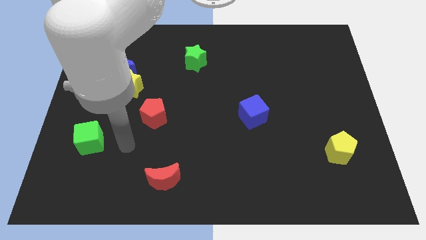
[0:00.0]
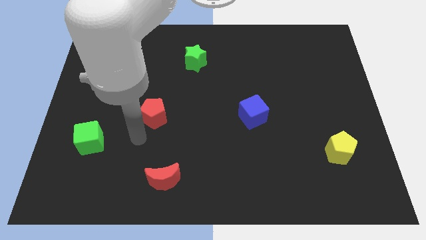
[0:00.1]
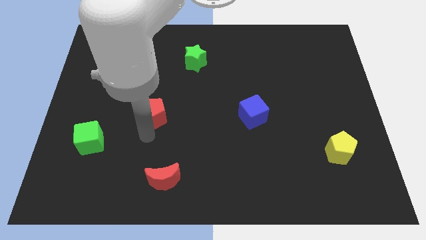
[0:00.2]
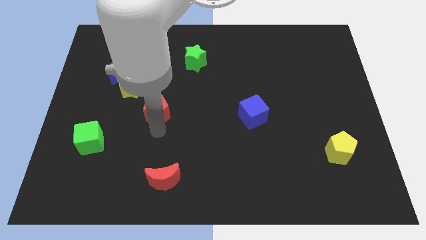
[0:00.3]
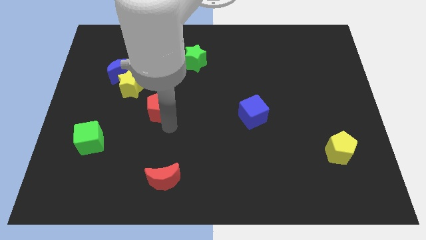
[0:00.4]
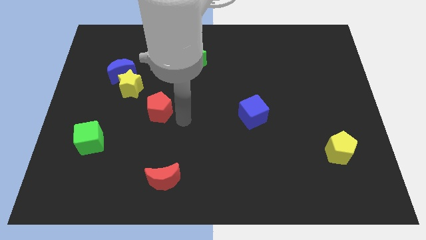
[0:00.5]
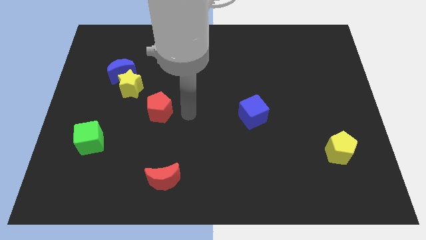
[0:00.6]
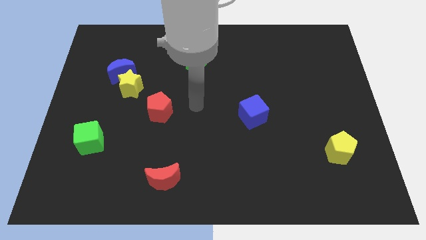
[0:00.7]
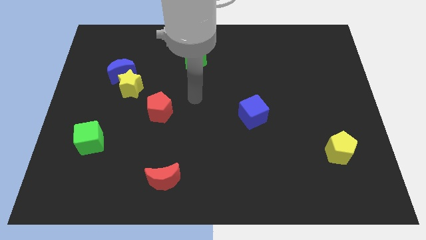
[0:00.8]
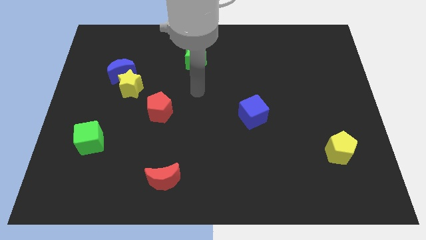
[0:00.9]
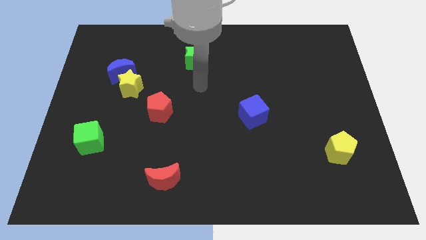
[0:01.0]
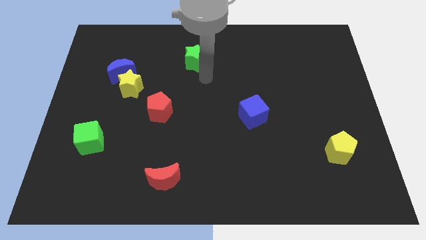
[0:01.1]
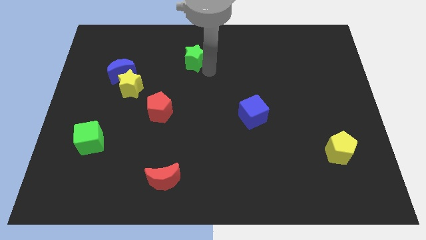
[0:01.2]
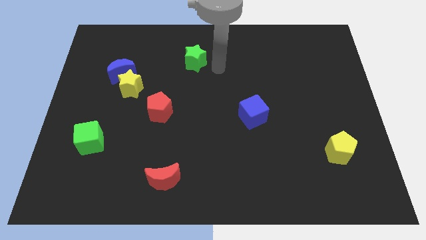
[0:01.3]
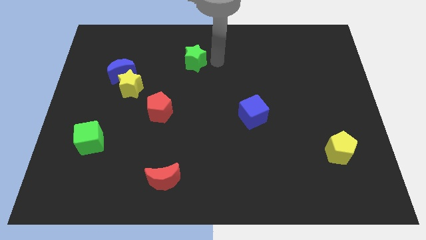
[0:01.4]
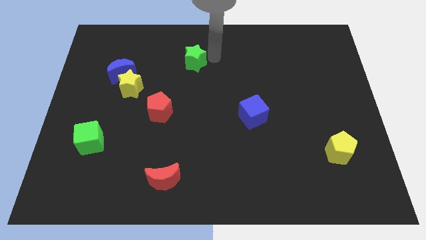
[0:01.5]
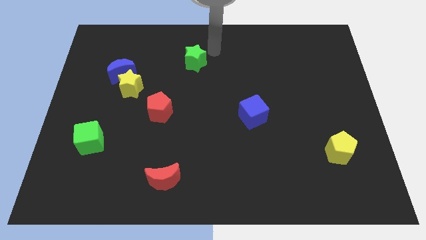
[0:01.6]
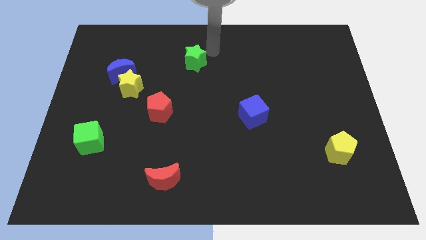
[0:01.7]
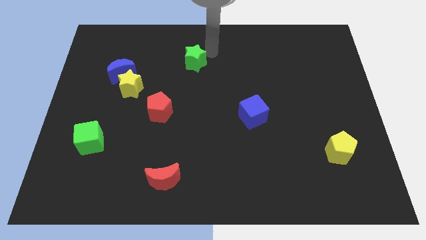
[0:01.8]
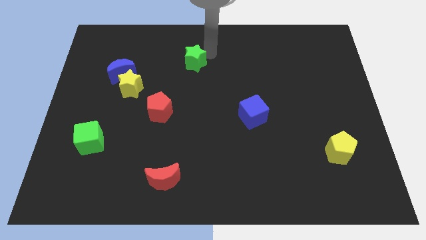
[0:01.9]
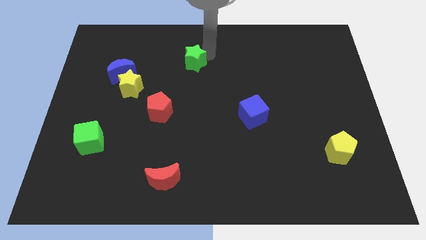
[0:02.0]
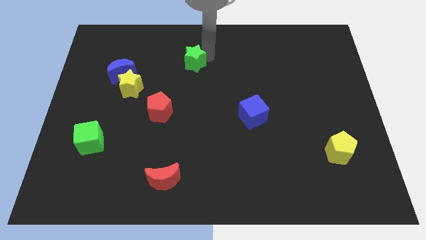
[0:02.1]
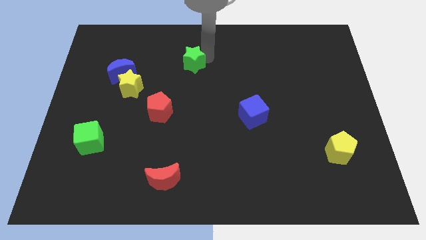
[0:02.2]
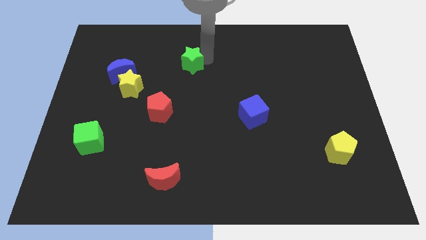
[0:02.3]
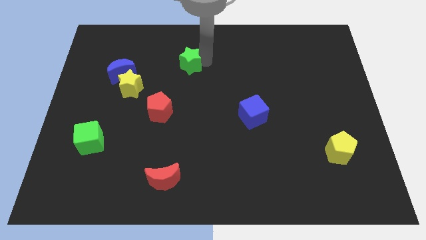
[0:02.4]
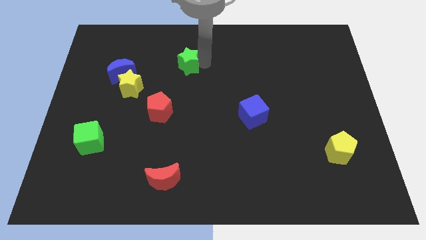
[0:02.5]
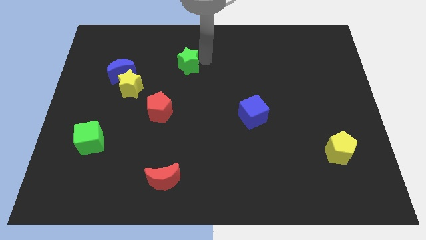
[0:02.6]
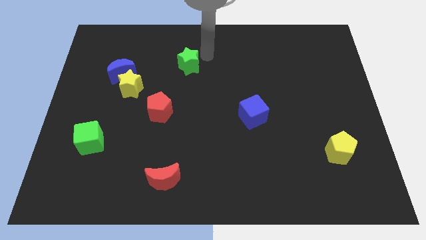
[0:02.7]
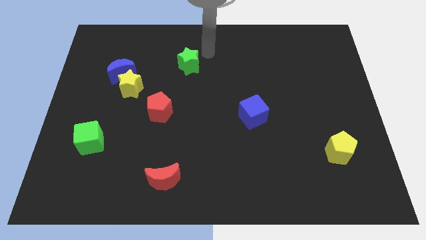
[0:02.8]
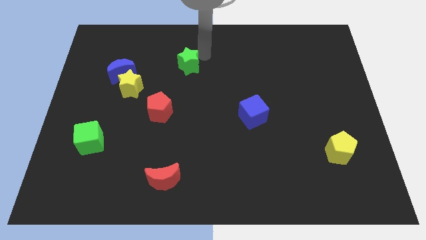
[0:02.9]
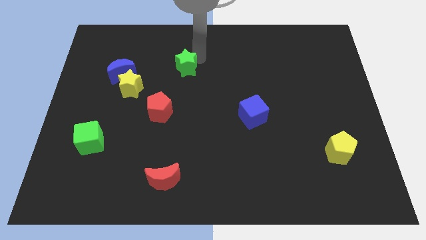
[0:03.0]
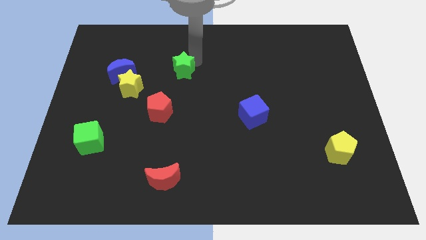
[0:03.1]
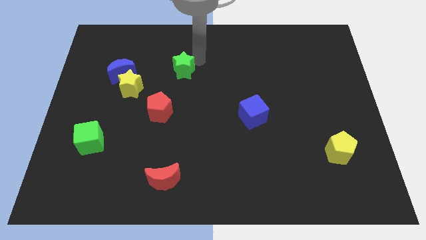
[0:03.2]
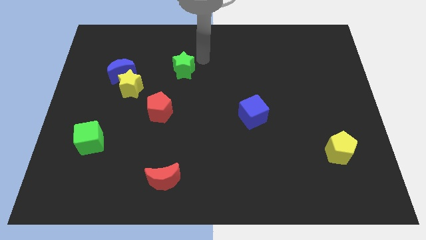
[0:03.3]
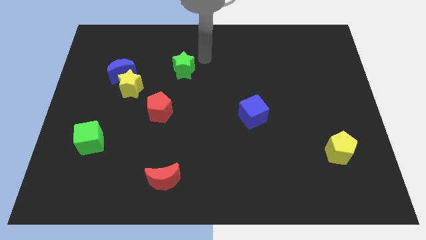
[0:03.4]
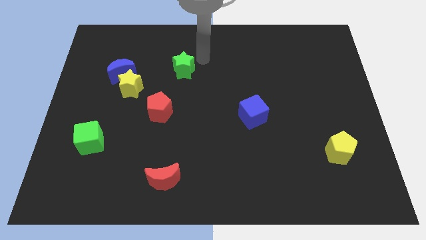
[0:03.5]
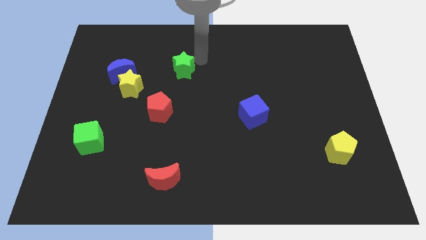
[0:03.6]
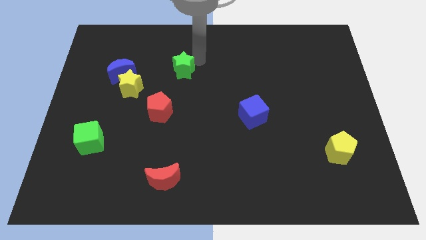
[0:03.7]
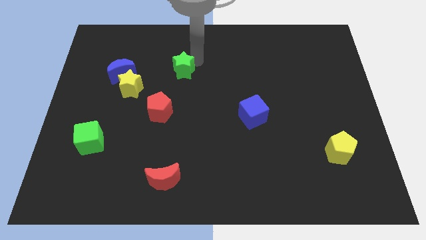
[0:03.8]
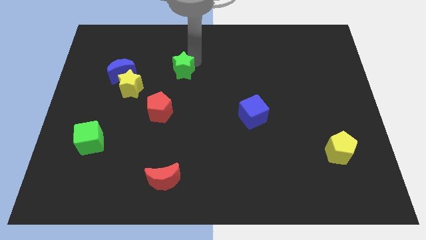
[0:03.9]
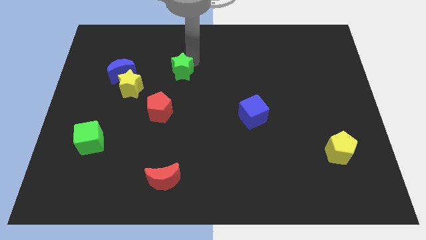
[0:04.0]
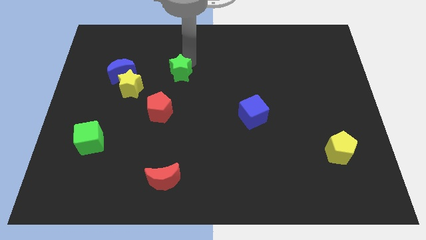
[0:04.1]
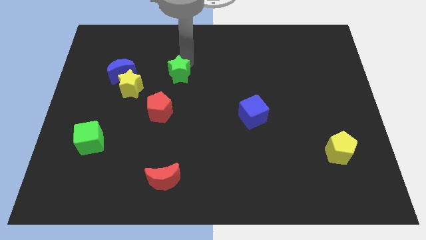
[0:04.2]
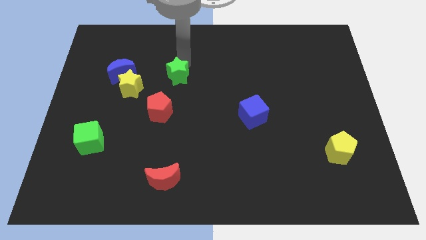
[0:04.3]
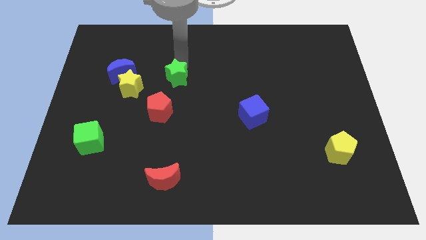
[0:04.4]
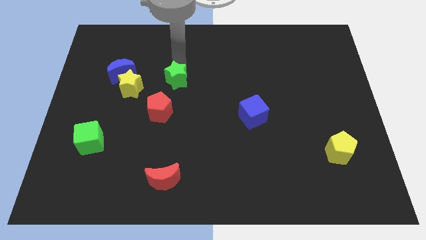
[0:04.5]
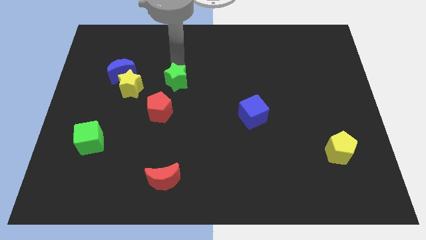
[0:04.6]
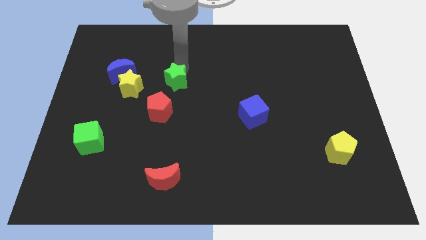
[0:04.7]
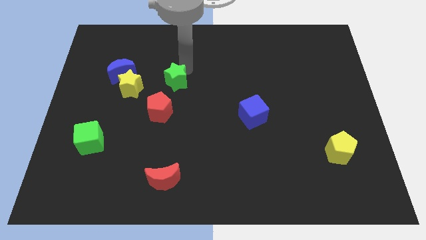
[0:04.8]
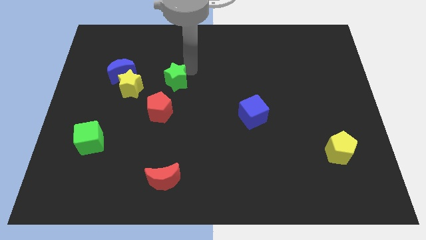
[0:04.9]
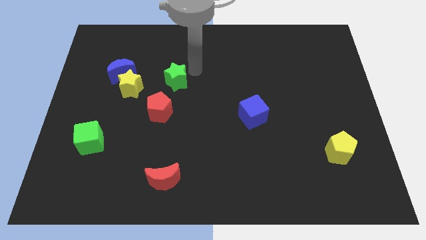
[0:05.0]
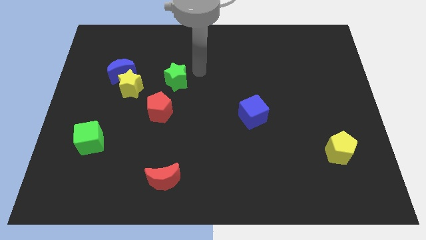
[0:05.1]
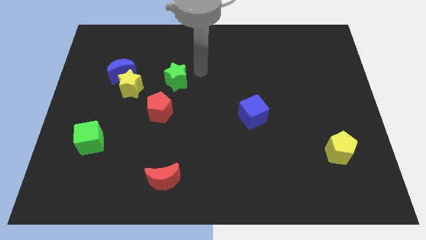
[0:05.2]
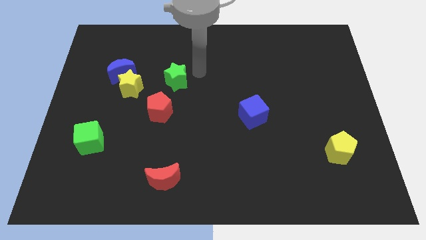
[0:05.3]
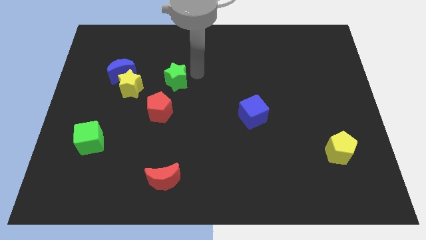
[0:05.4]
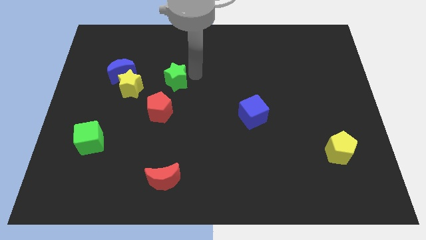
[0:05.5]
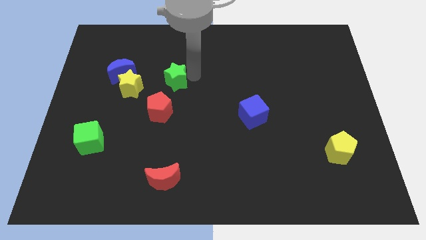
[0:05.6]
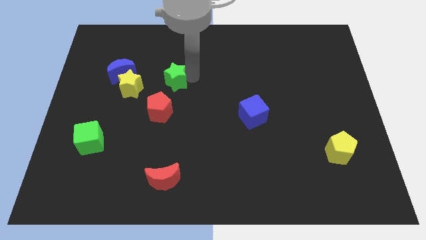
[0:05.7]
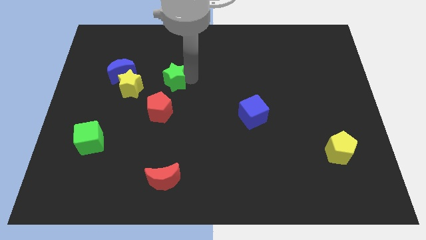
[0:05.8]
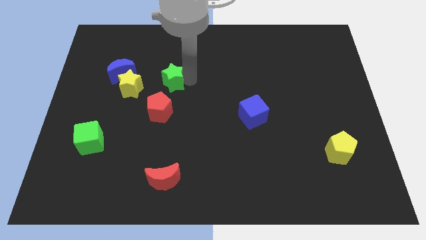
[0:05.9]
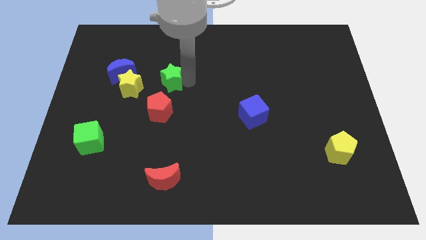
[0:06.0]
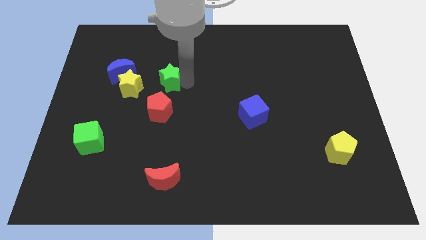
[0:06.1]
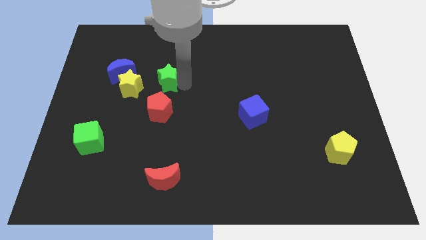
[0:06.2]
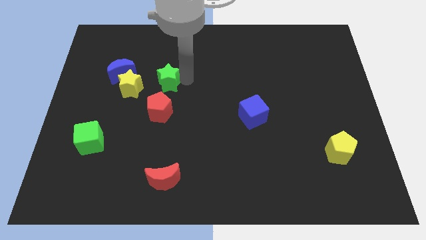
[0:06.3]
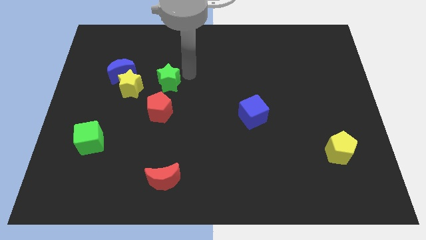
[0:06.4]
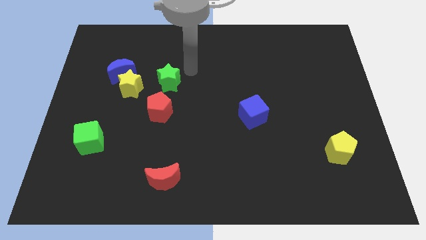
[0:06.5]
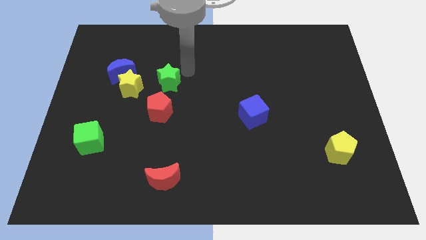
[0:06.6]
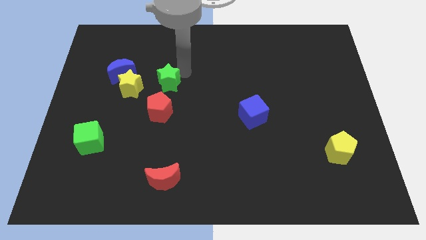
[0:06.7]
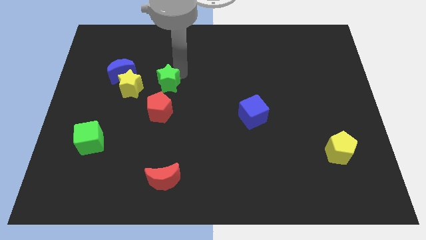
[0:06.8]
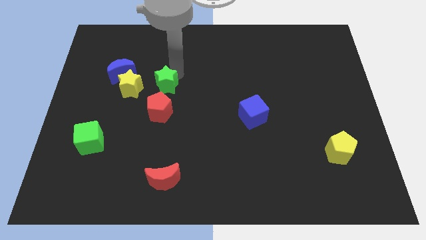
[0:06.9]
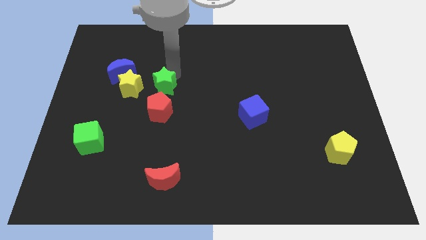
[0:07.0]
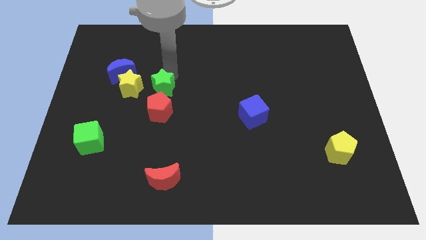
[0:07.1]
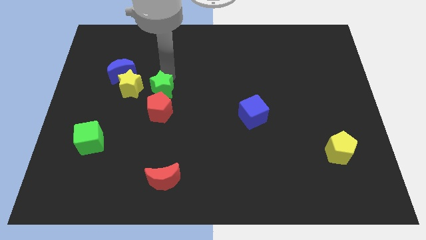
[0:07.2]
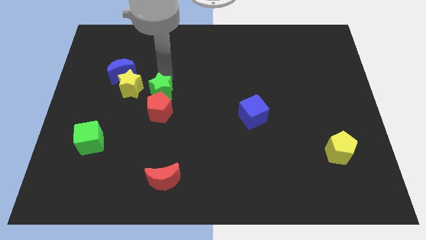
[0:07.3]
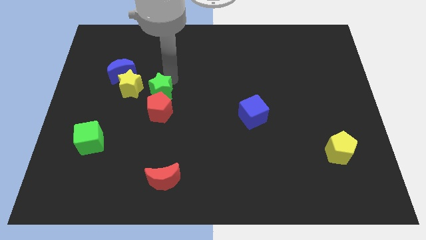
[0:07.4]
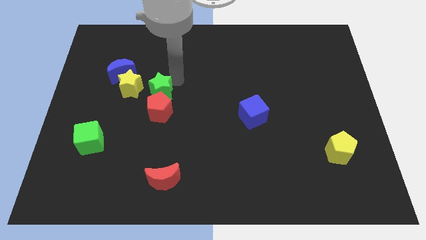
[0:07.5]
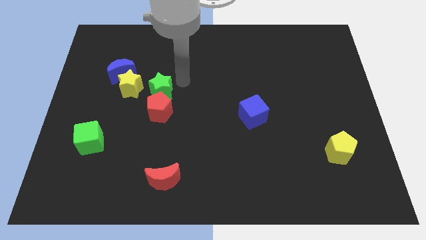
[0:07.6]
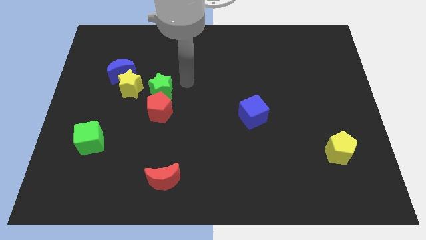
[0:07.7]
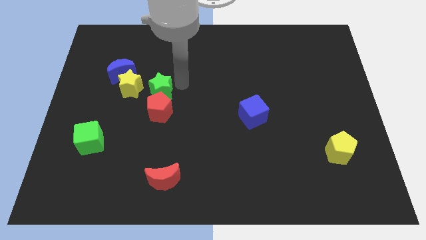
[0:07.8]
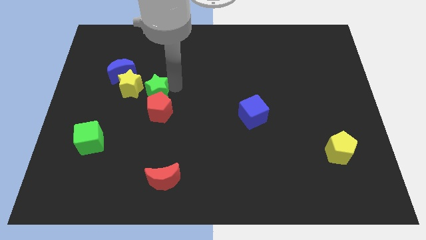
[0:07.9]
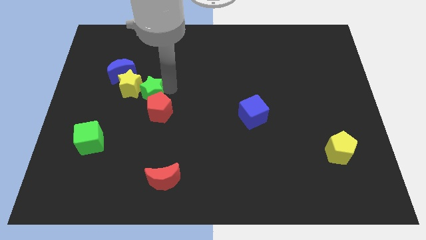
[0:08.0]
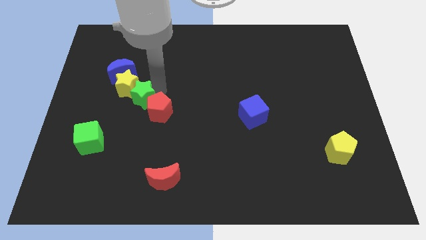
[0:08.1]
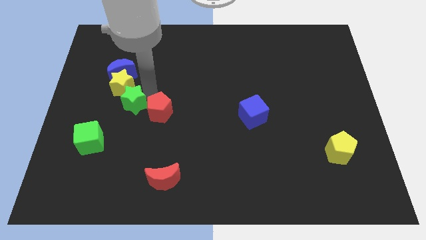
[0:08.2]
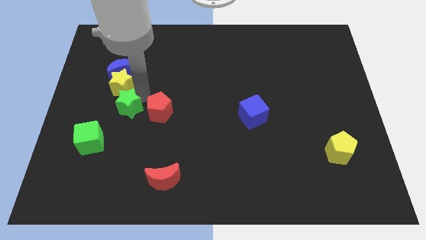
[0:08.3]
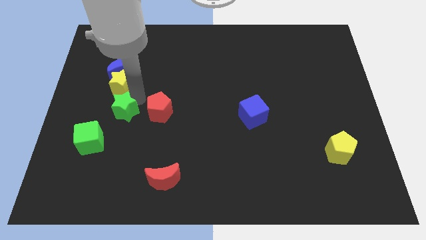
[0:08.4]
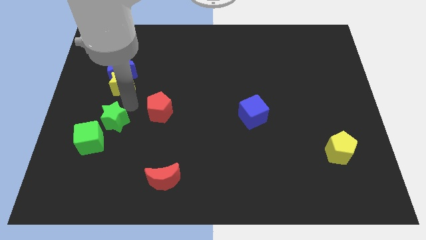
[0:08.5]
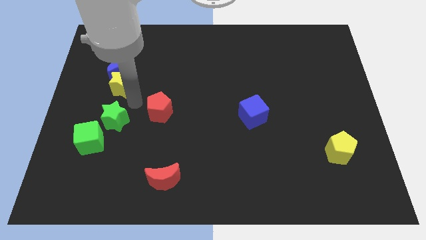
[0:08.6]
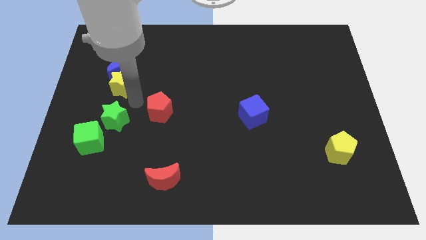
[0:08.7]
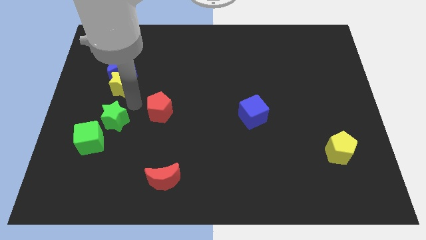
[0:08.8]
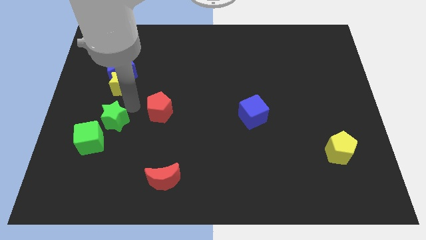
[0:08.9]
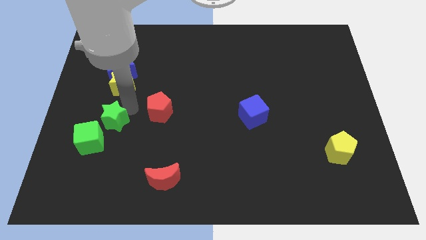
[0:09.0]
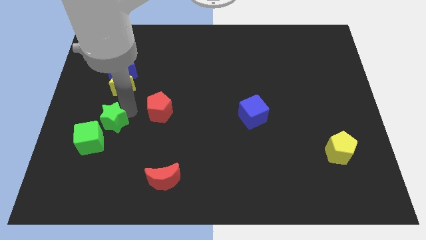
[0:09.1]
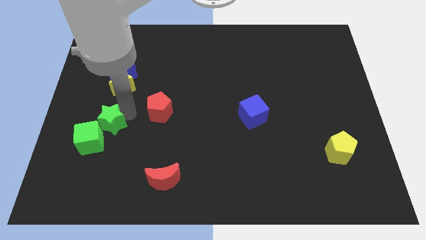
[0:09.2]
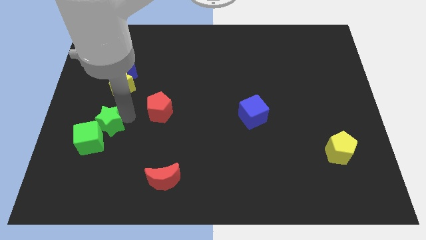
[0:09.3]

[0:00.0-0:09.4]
put the green star close to the green cube
